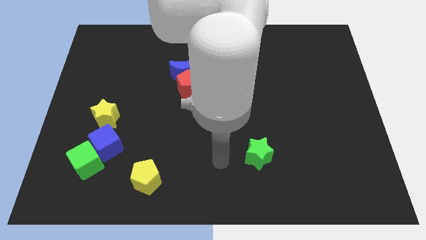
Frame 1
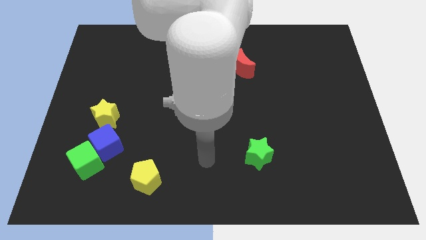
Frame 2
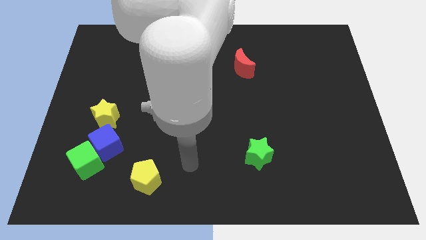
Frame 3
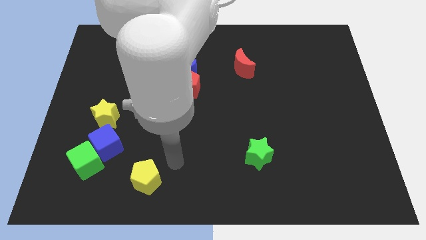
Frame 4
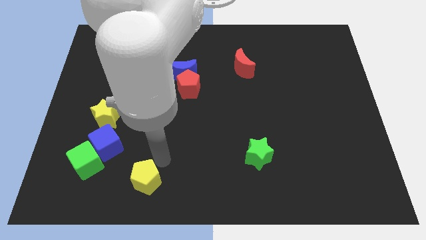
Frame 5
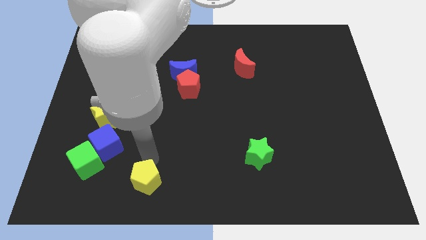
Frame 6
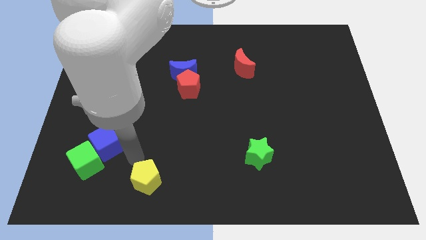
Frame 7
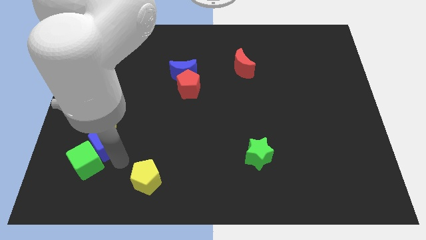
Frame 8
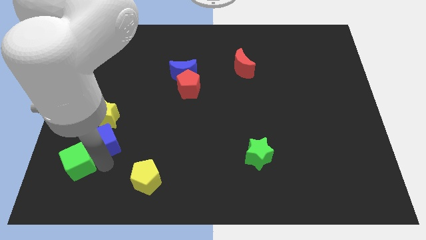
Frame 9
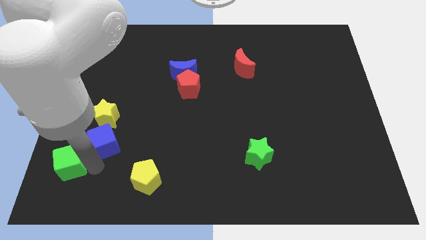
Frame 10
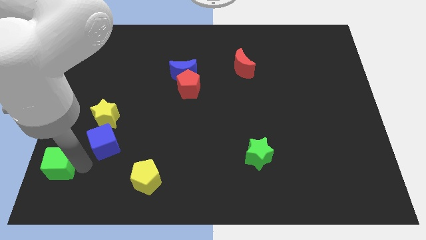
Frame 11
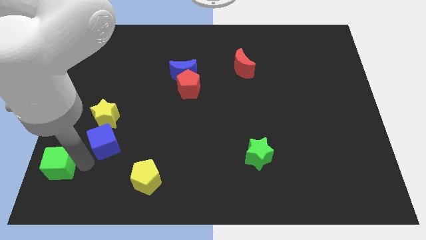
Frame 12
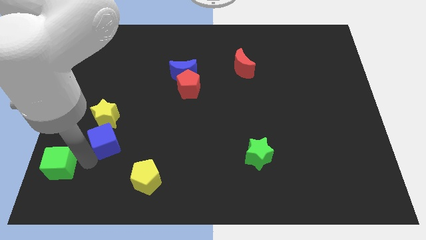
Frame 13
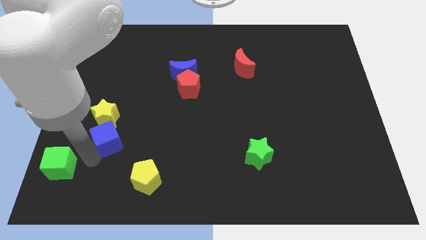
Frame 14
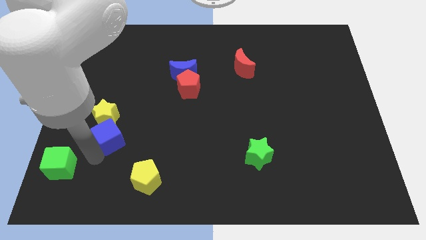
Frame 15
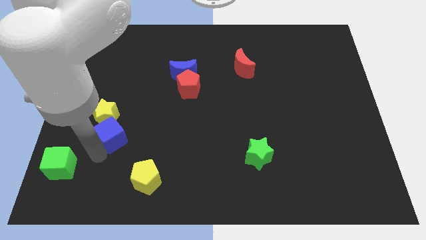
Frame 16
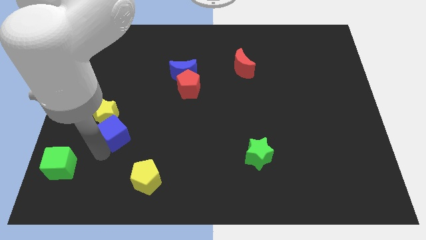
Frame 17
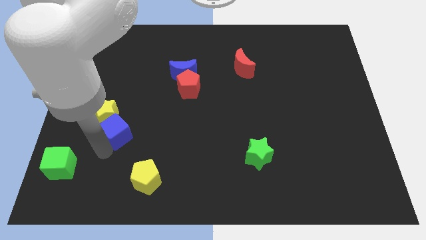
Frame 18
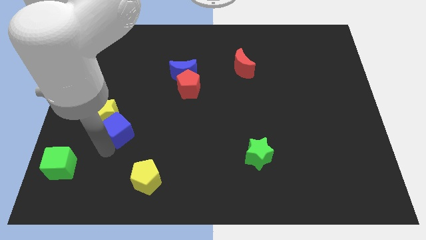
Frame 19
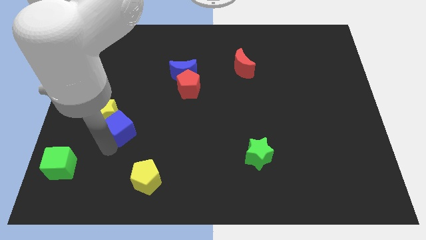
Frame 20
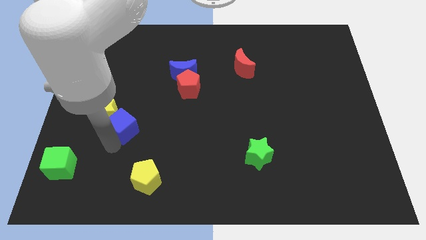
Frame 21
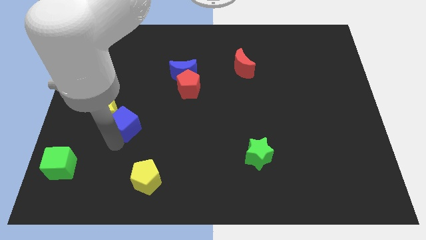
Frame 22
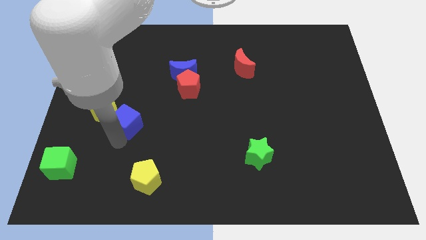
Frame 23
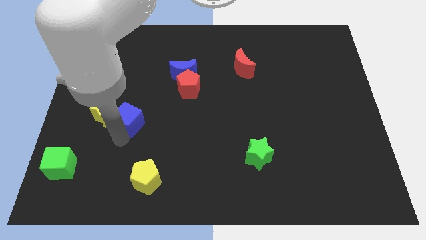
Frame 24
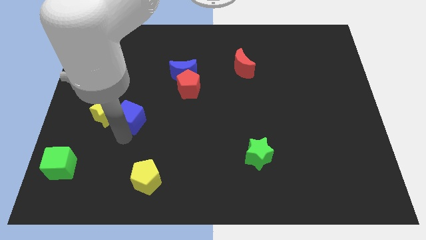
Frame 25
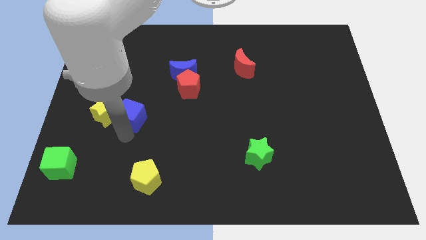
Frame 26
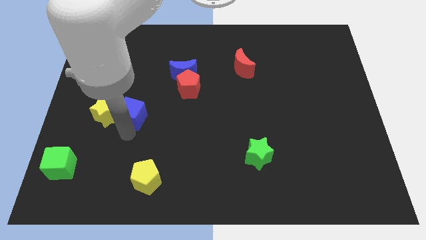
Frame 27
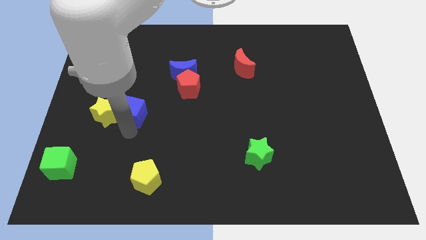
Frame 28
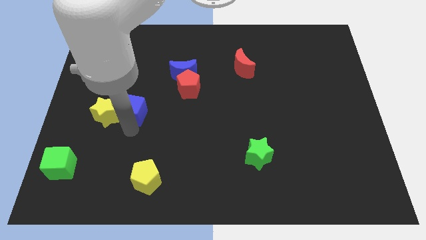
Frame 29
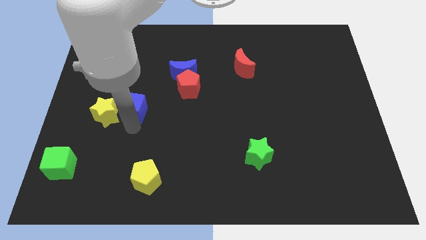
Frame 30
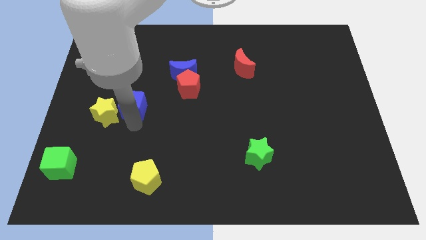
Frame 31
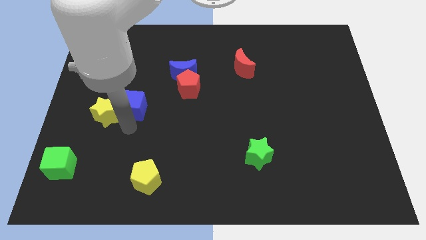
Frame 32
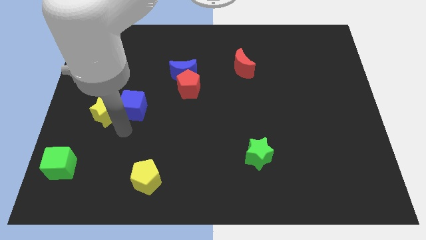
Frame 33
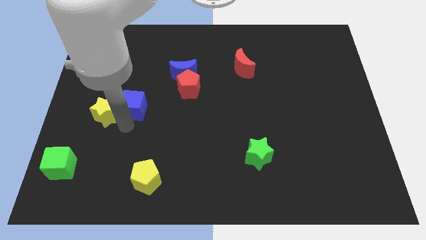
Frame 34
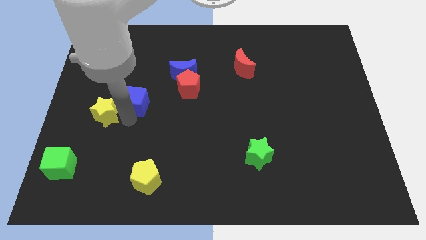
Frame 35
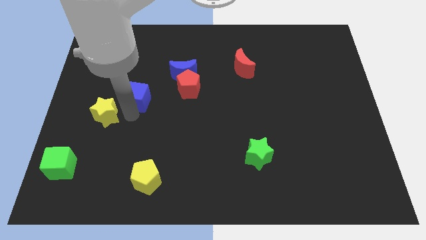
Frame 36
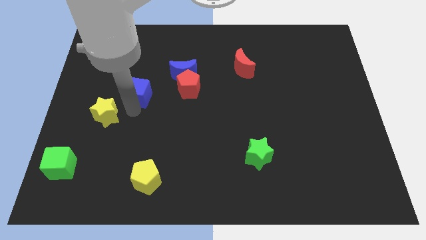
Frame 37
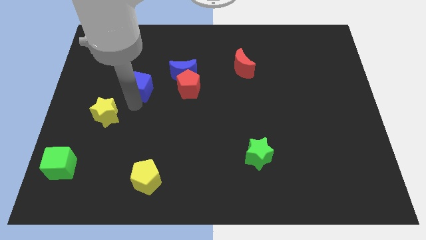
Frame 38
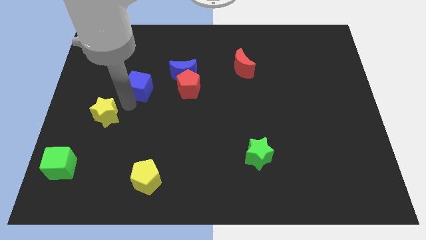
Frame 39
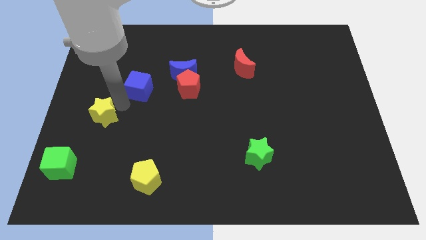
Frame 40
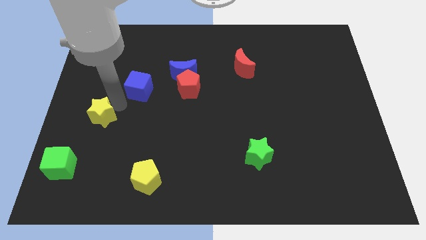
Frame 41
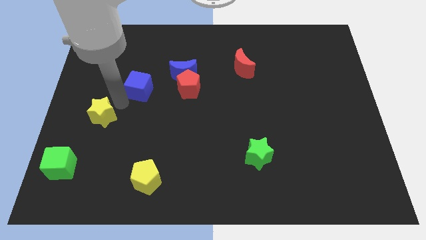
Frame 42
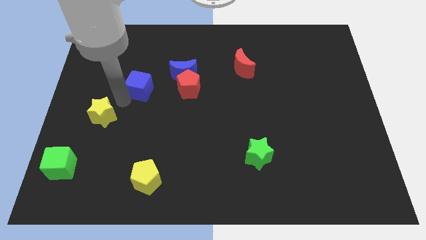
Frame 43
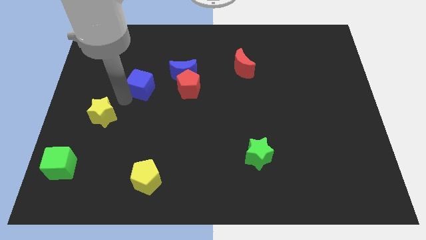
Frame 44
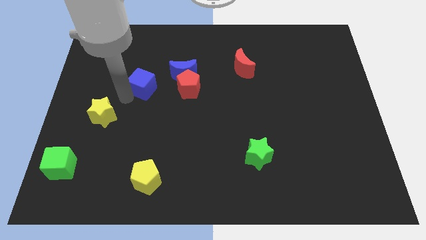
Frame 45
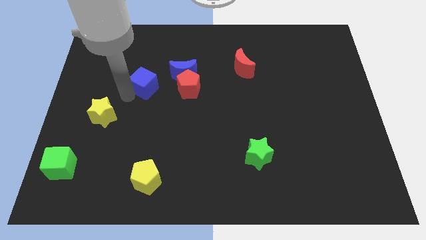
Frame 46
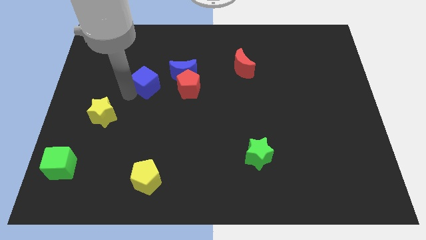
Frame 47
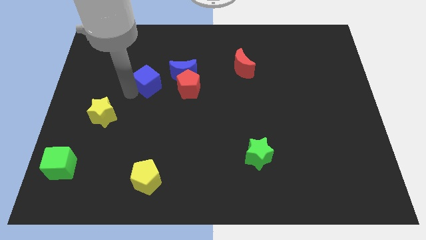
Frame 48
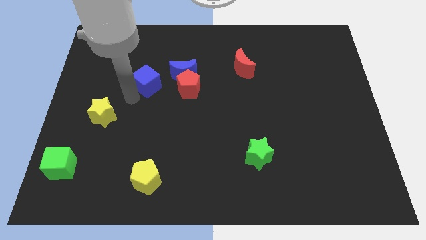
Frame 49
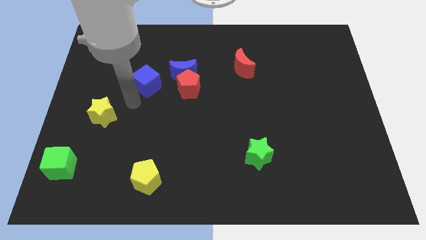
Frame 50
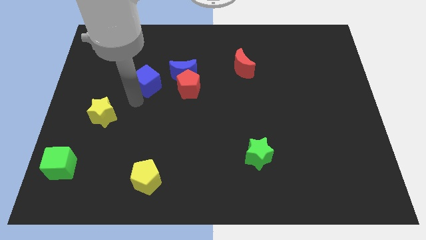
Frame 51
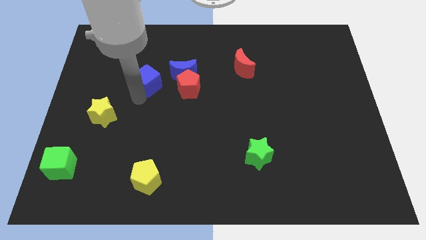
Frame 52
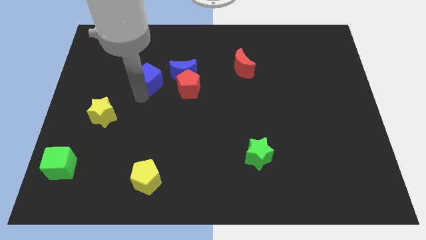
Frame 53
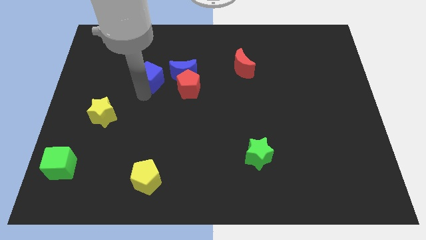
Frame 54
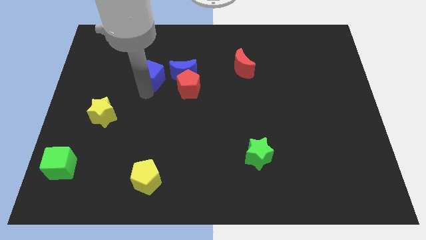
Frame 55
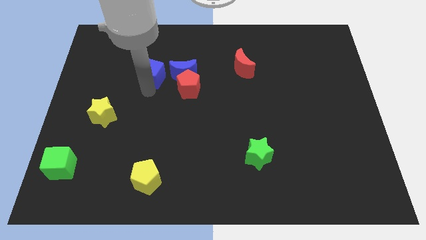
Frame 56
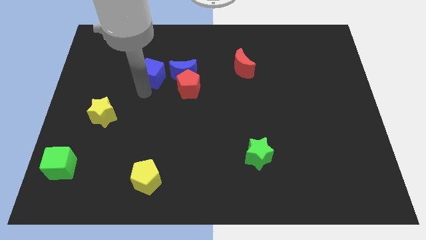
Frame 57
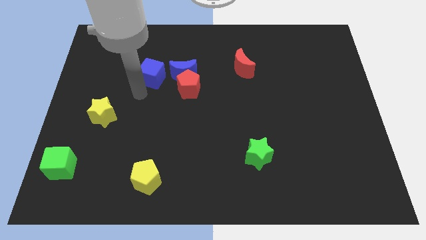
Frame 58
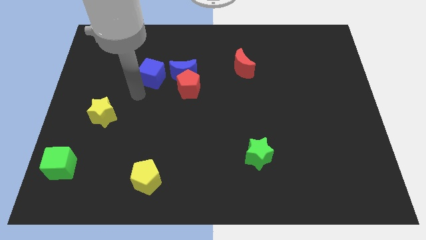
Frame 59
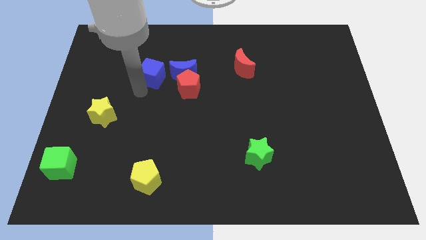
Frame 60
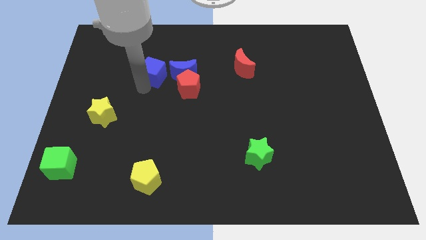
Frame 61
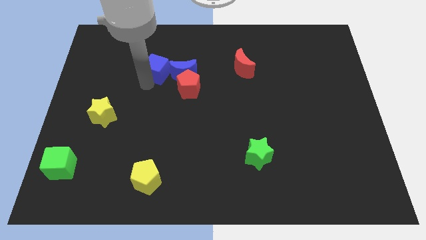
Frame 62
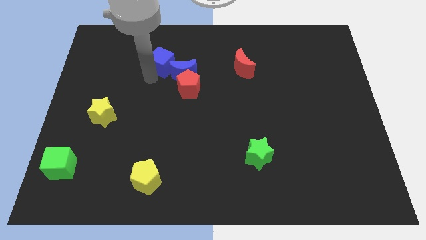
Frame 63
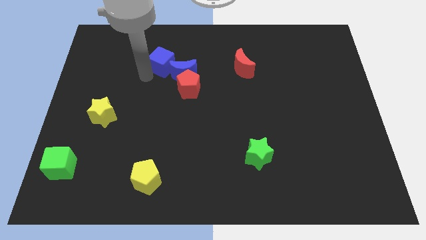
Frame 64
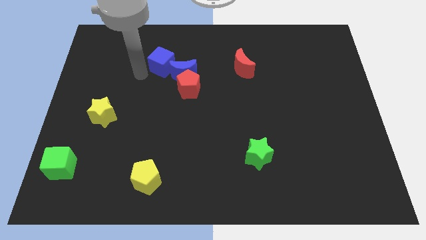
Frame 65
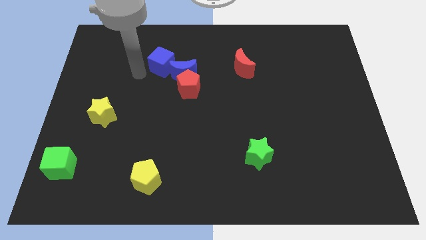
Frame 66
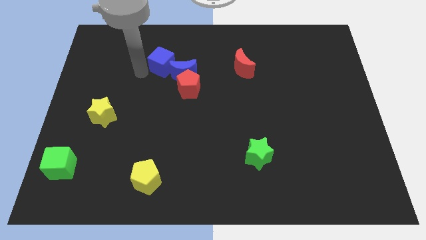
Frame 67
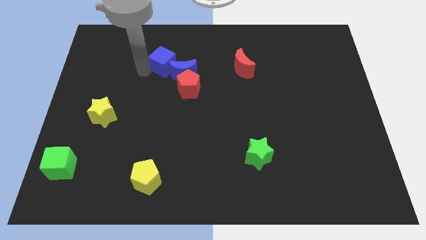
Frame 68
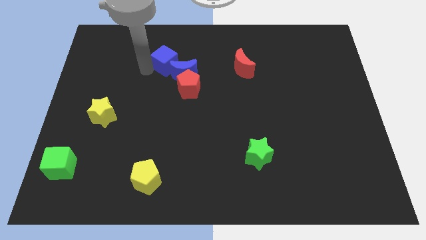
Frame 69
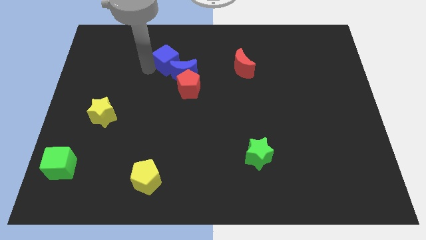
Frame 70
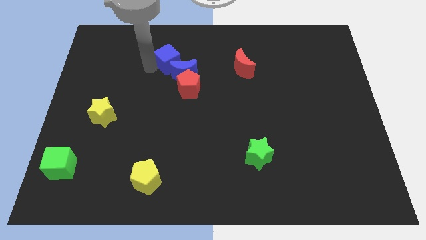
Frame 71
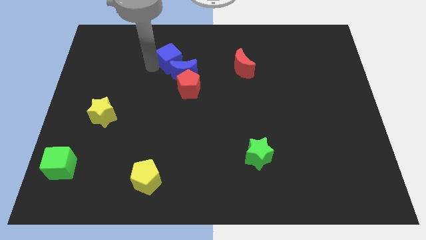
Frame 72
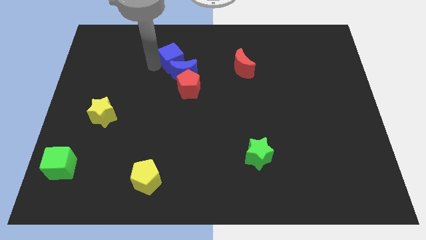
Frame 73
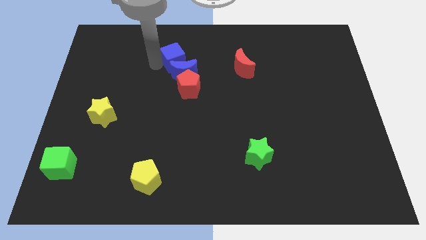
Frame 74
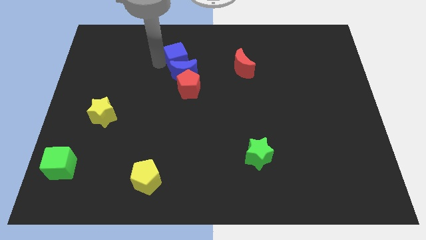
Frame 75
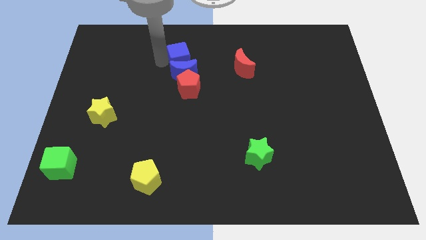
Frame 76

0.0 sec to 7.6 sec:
slide the blue cube diagonally up and to the right of the blue moon
